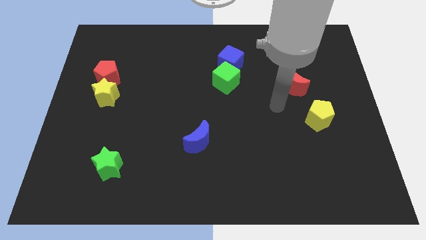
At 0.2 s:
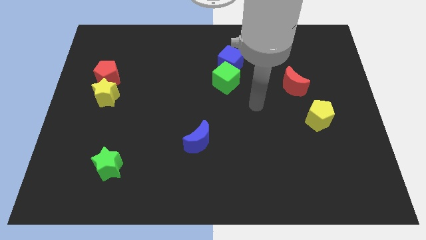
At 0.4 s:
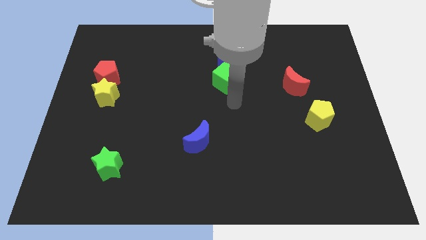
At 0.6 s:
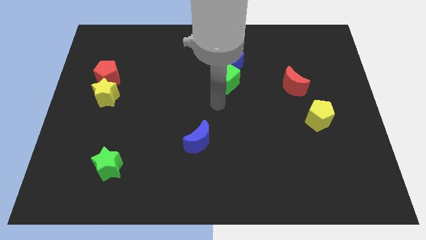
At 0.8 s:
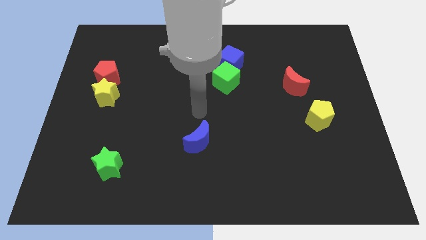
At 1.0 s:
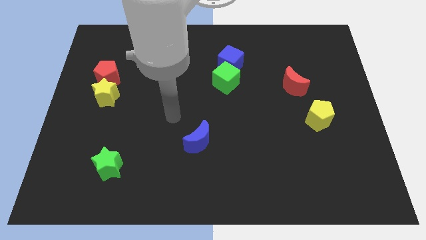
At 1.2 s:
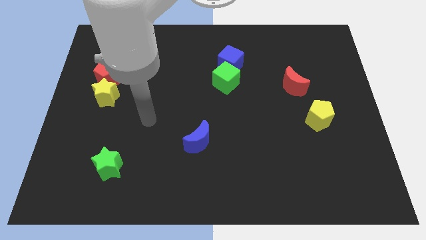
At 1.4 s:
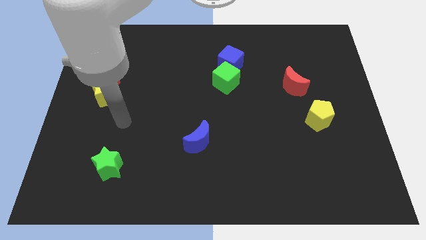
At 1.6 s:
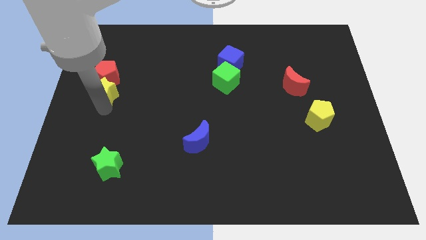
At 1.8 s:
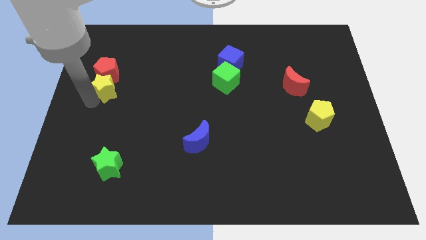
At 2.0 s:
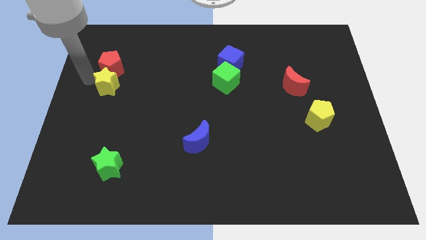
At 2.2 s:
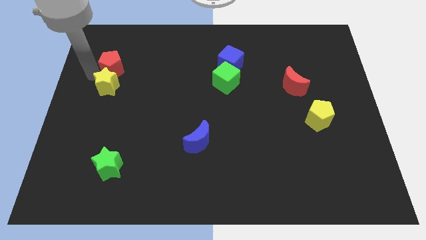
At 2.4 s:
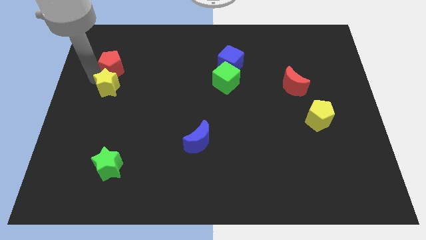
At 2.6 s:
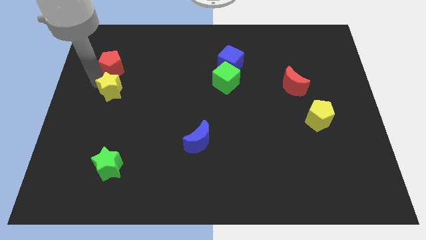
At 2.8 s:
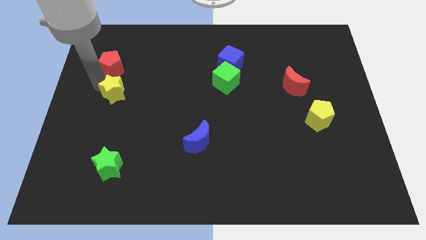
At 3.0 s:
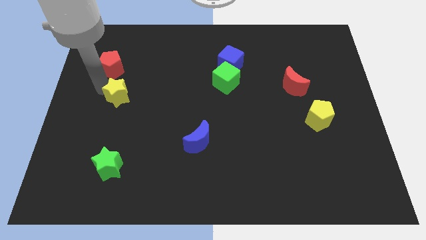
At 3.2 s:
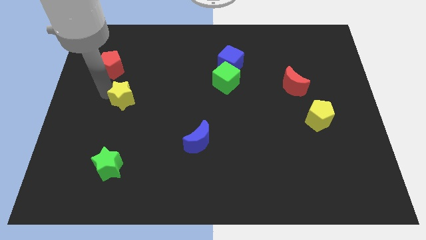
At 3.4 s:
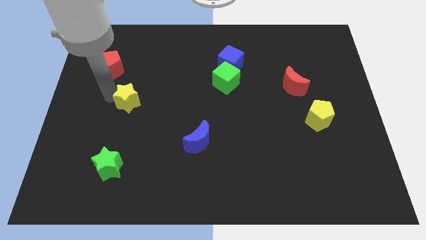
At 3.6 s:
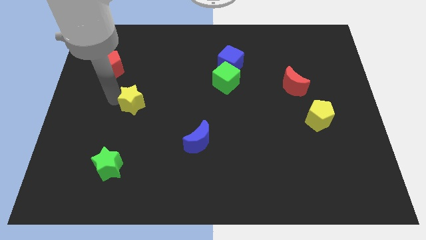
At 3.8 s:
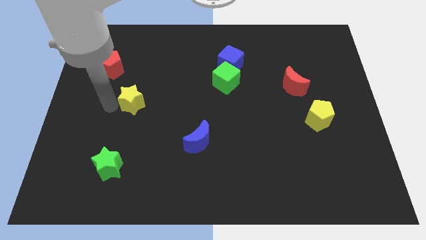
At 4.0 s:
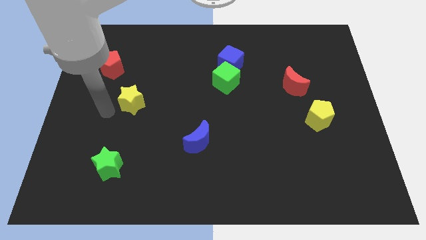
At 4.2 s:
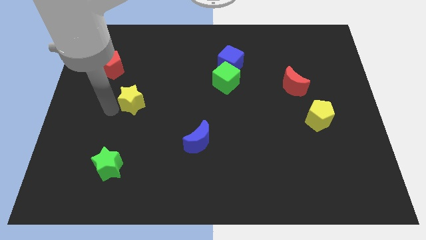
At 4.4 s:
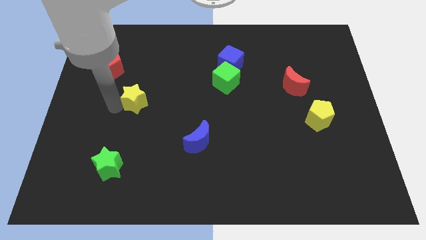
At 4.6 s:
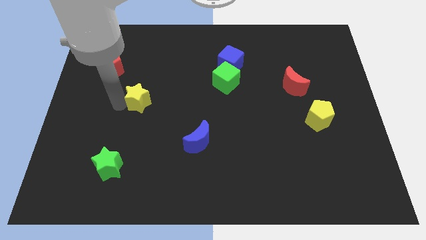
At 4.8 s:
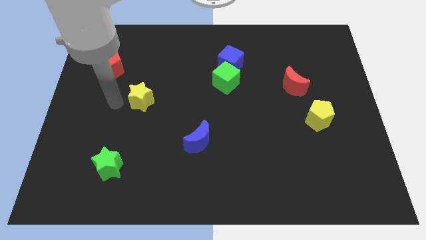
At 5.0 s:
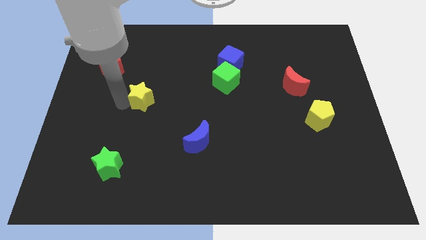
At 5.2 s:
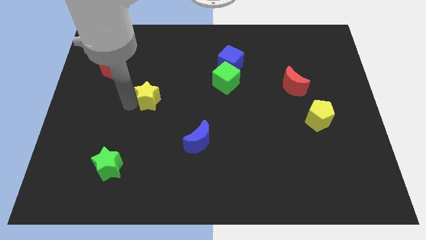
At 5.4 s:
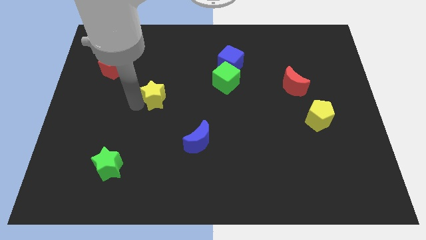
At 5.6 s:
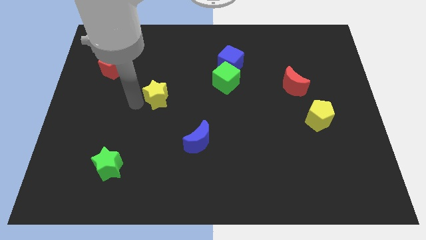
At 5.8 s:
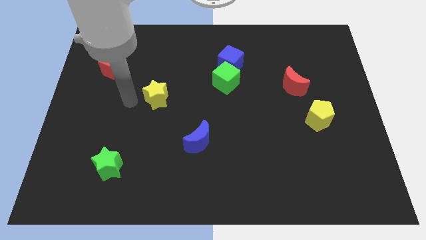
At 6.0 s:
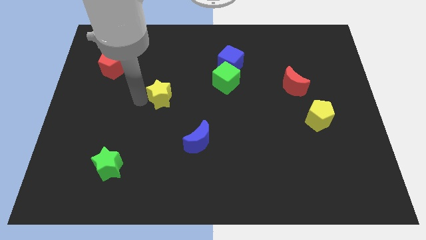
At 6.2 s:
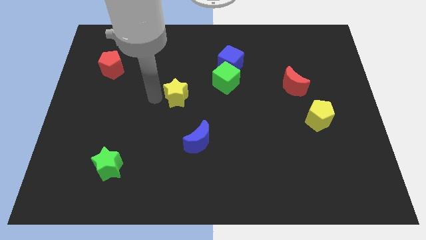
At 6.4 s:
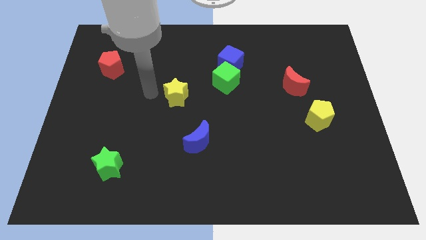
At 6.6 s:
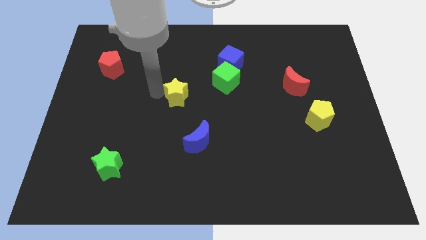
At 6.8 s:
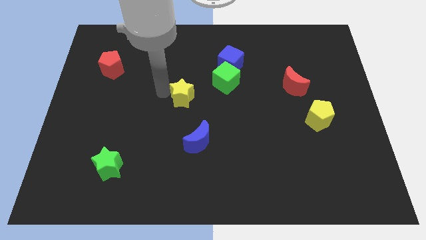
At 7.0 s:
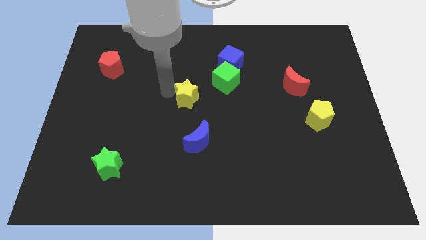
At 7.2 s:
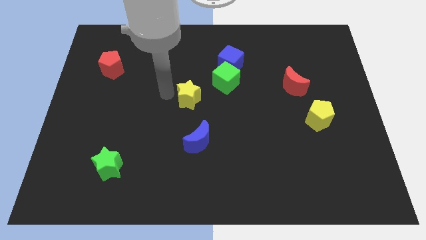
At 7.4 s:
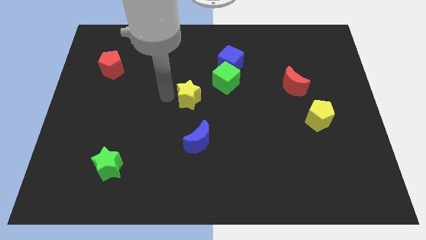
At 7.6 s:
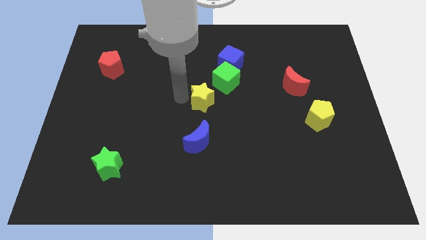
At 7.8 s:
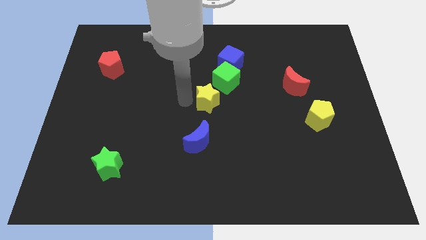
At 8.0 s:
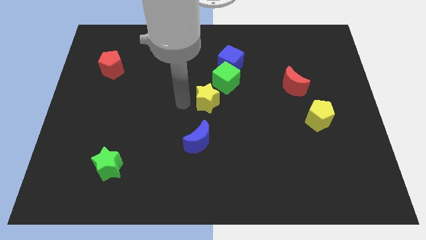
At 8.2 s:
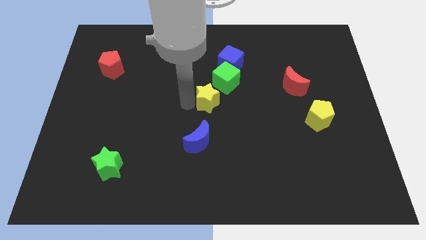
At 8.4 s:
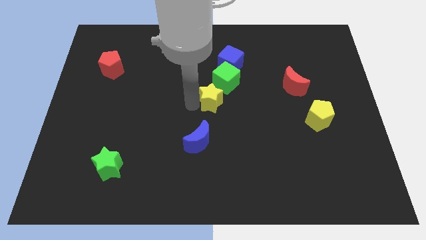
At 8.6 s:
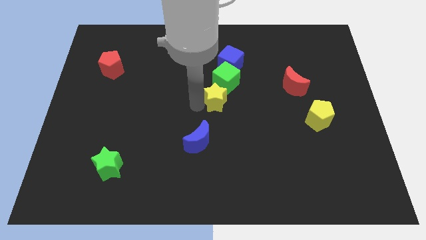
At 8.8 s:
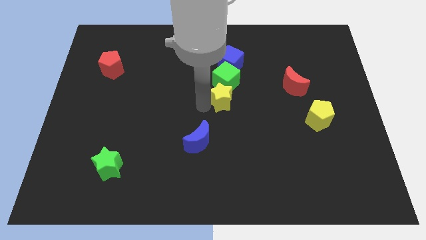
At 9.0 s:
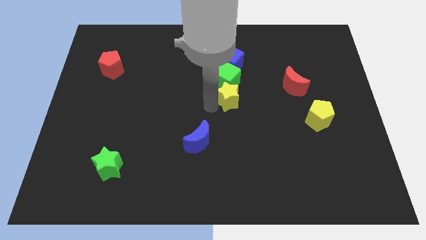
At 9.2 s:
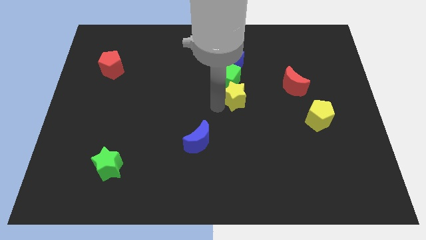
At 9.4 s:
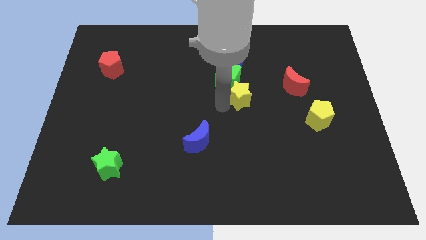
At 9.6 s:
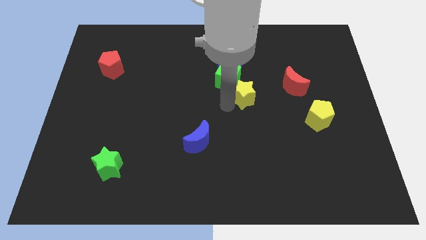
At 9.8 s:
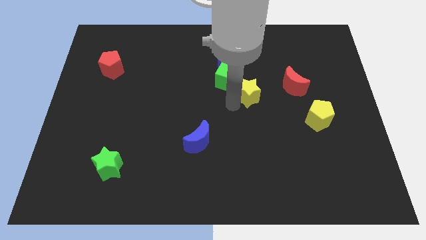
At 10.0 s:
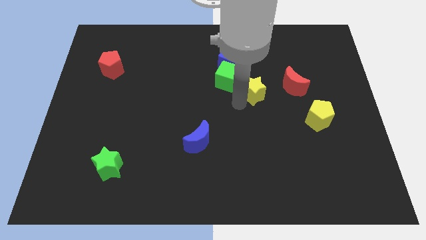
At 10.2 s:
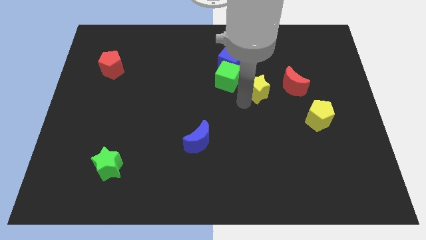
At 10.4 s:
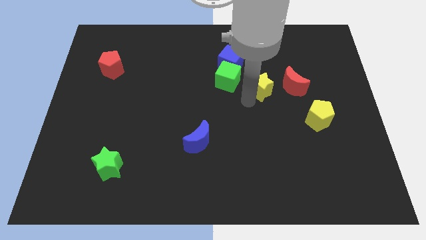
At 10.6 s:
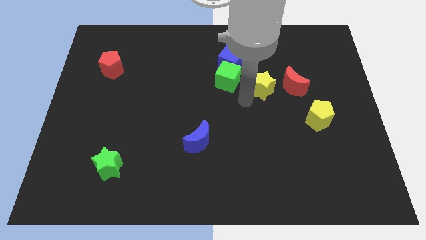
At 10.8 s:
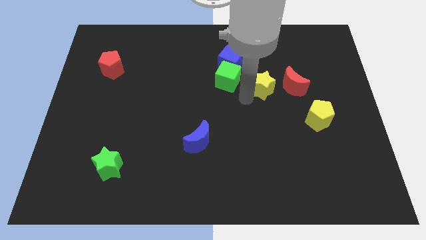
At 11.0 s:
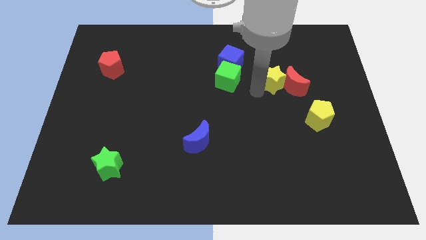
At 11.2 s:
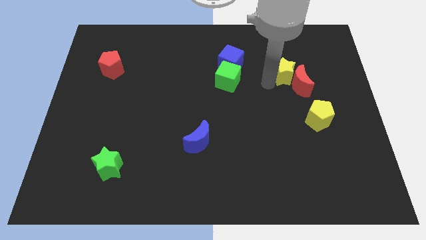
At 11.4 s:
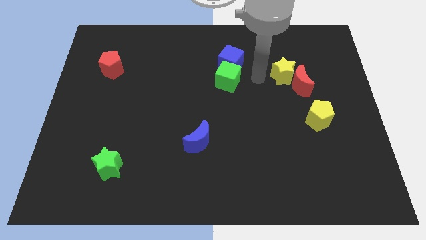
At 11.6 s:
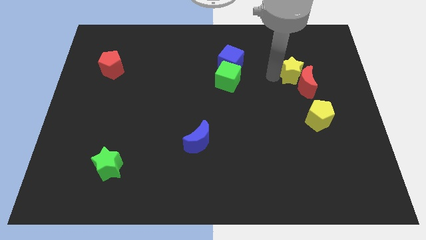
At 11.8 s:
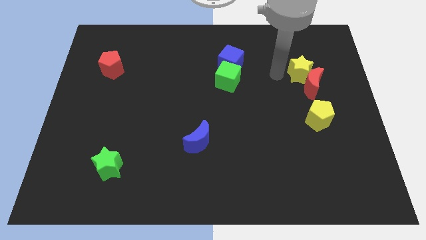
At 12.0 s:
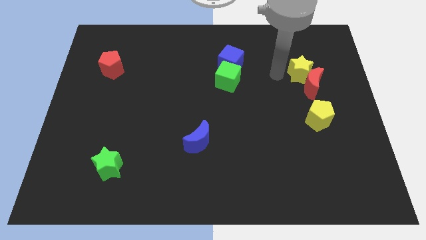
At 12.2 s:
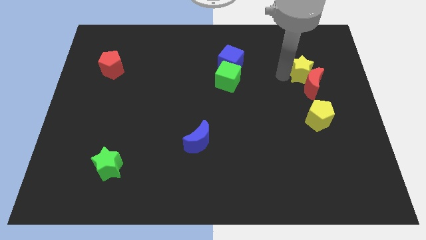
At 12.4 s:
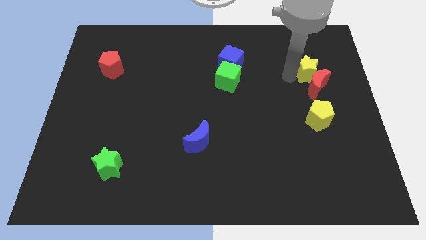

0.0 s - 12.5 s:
put the yellow star to the top right of the red moon
